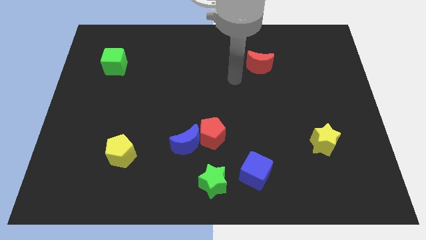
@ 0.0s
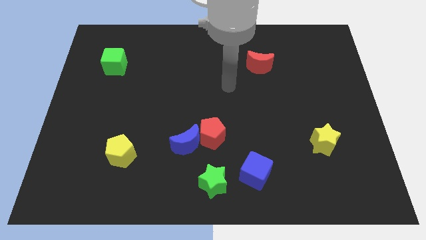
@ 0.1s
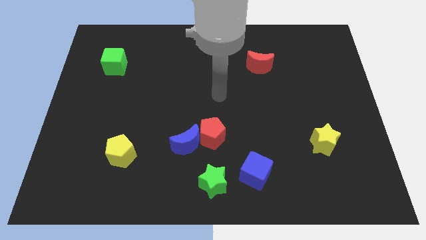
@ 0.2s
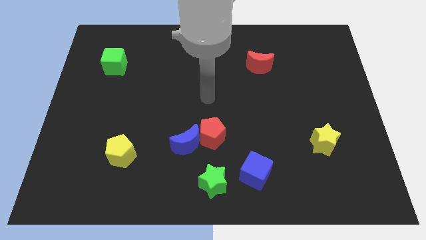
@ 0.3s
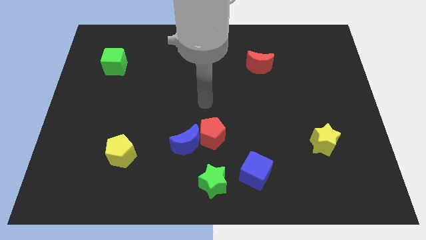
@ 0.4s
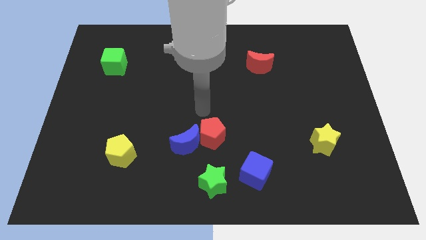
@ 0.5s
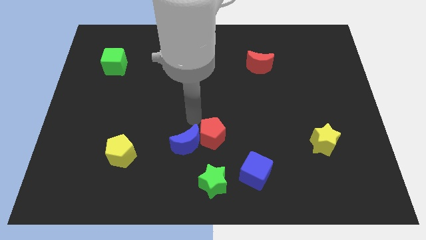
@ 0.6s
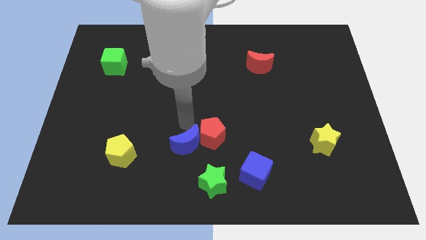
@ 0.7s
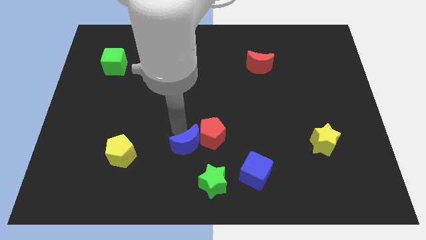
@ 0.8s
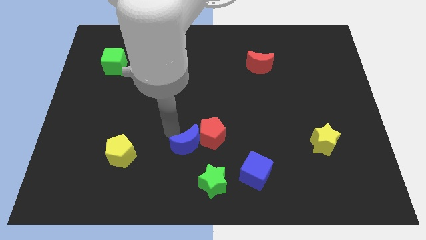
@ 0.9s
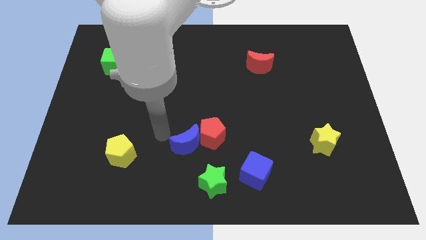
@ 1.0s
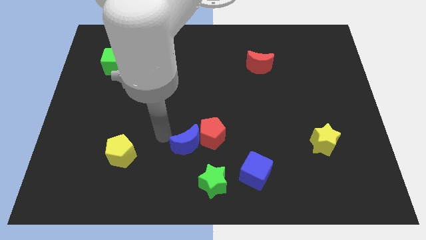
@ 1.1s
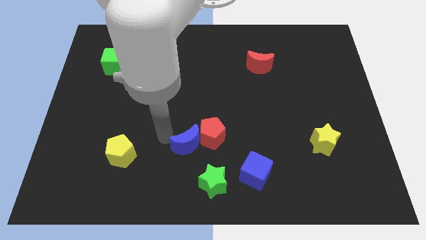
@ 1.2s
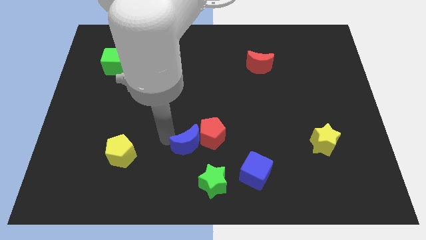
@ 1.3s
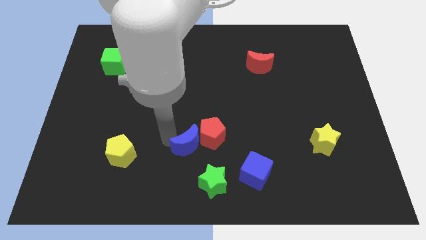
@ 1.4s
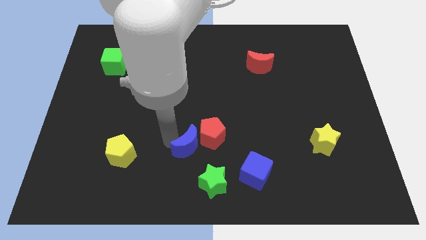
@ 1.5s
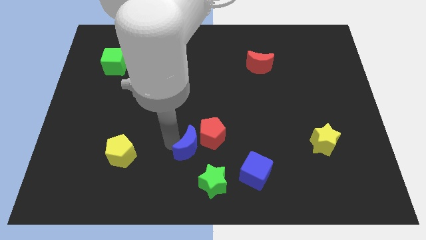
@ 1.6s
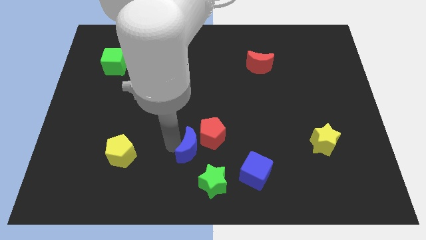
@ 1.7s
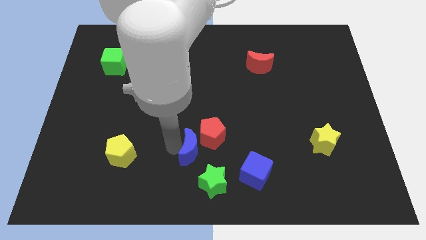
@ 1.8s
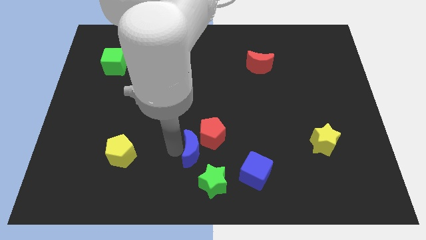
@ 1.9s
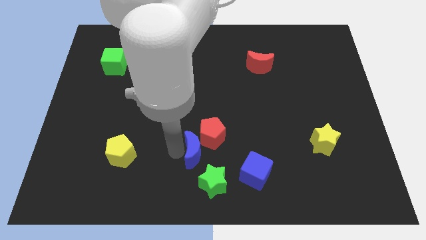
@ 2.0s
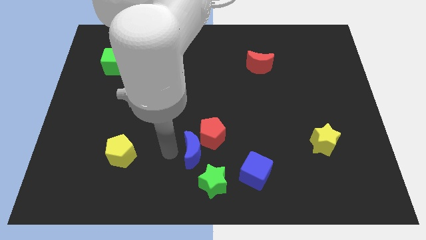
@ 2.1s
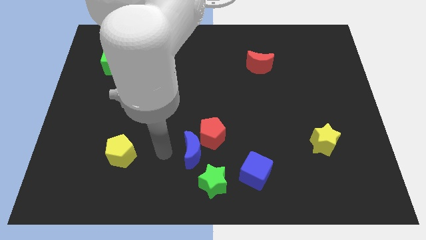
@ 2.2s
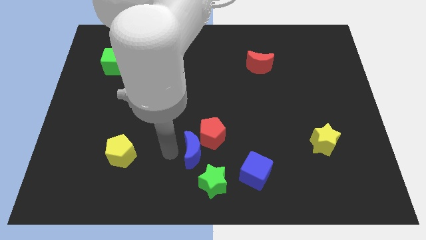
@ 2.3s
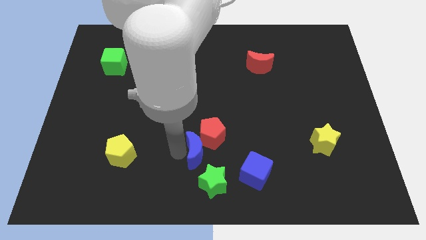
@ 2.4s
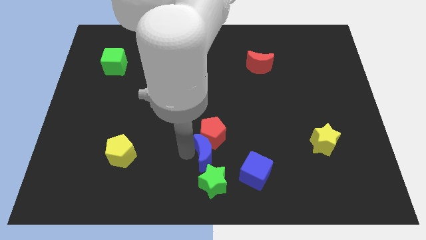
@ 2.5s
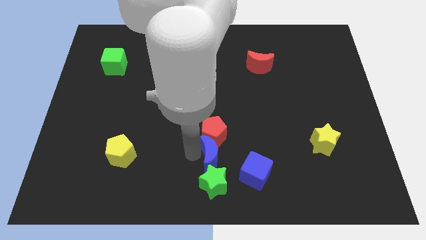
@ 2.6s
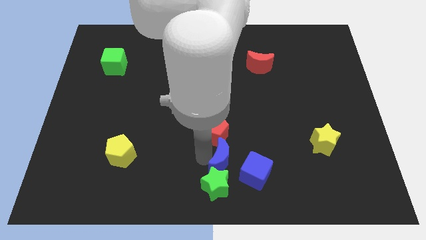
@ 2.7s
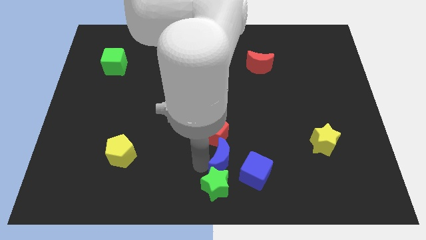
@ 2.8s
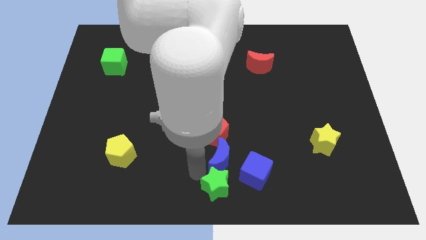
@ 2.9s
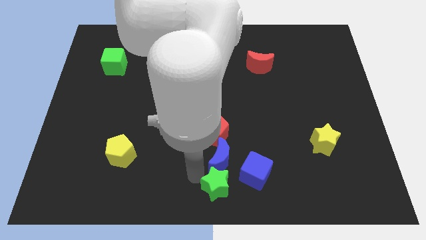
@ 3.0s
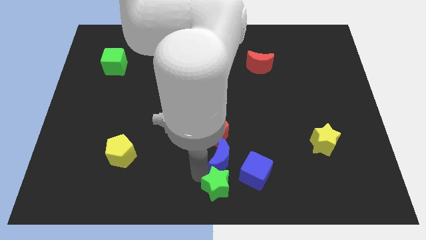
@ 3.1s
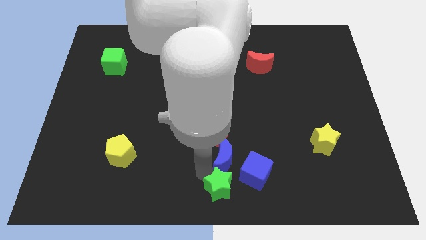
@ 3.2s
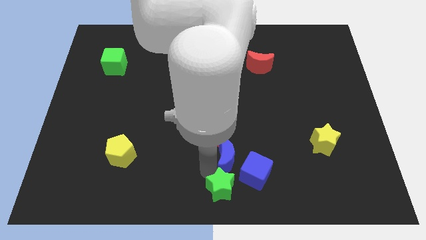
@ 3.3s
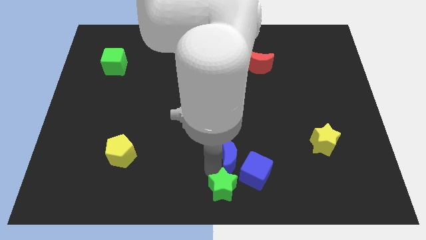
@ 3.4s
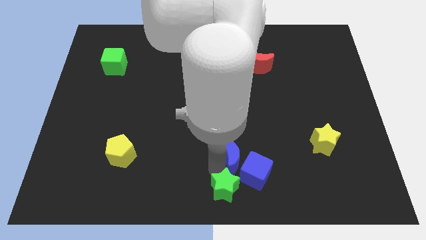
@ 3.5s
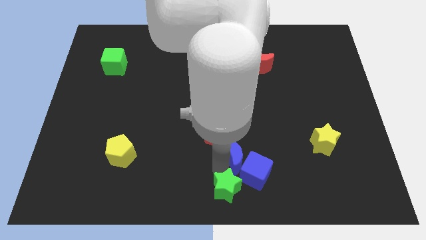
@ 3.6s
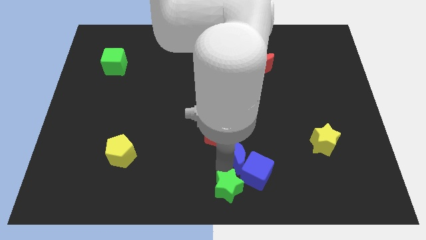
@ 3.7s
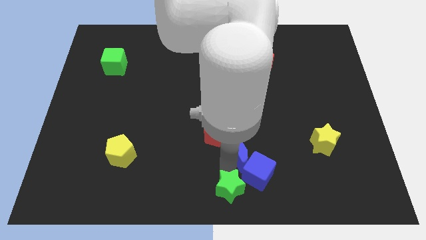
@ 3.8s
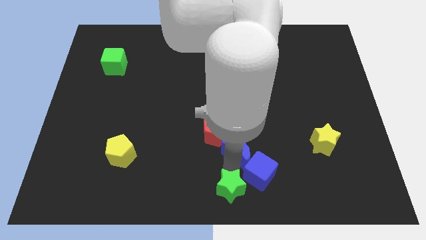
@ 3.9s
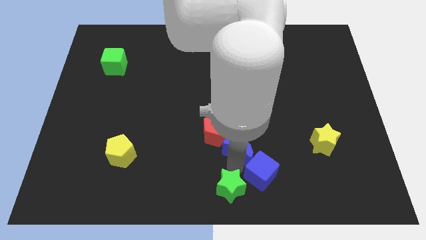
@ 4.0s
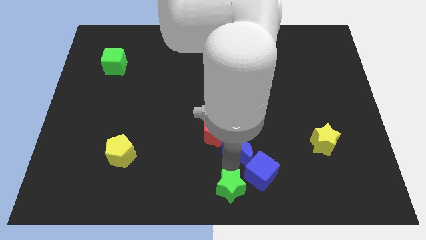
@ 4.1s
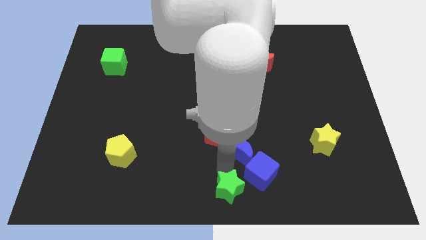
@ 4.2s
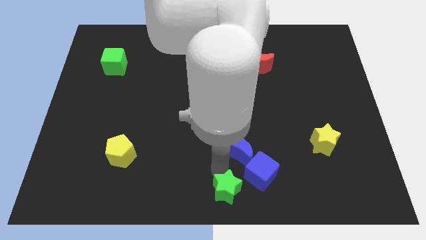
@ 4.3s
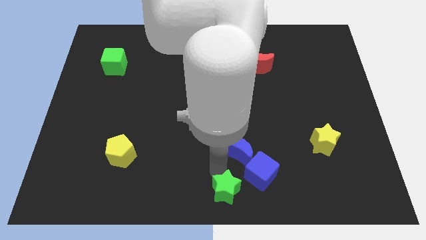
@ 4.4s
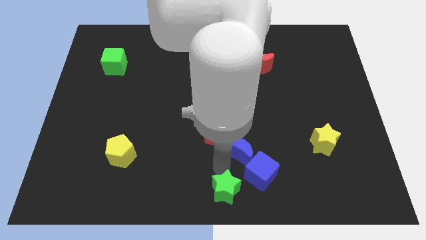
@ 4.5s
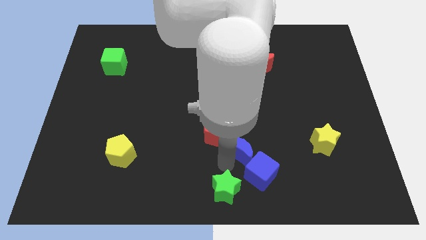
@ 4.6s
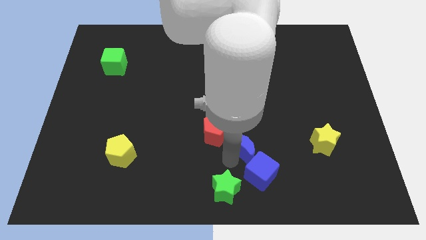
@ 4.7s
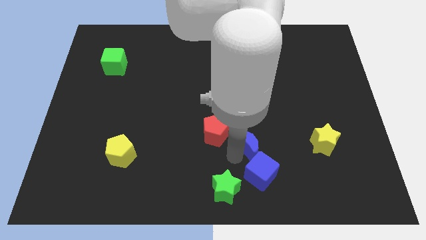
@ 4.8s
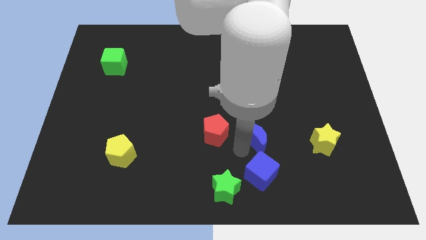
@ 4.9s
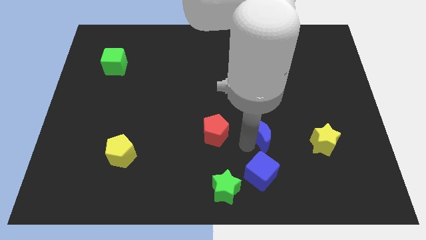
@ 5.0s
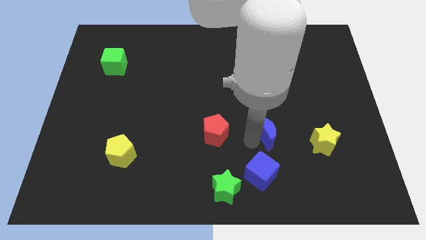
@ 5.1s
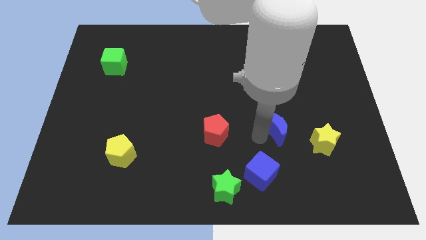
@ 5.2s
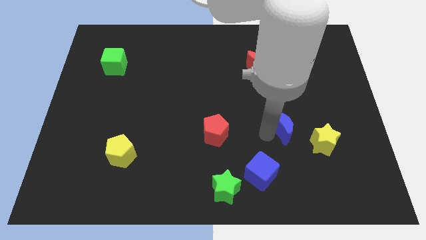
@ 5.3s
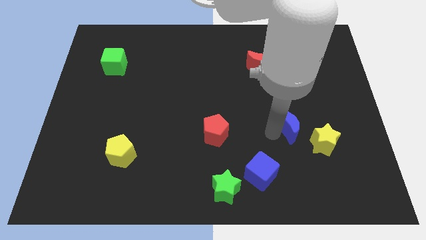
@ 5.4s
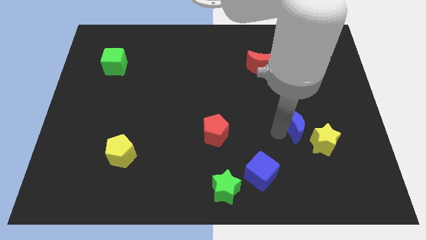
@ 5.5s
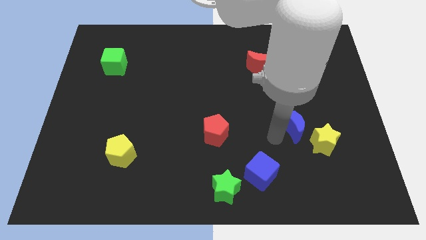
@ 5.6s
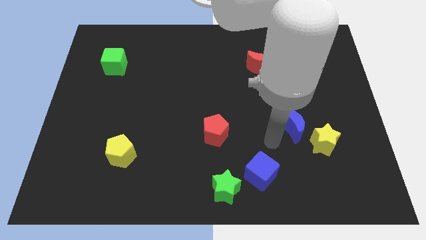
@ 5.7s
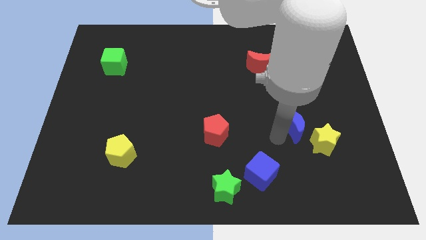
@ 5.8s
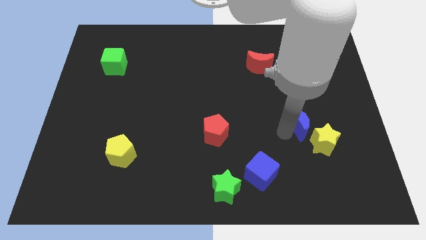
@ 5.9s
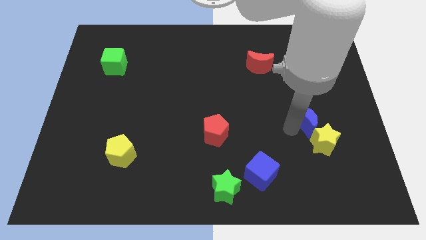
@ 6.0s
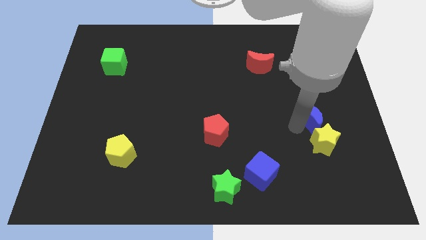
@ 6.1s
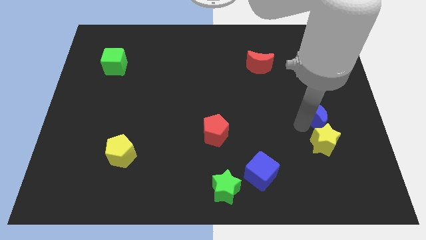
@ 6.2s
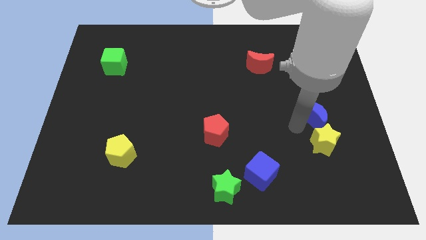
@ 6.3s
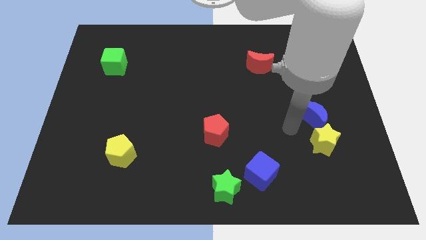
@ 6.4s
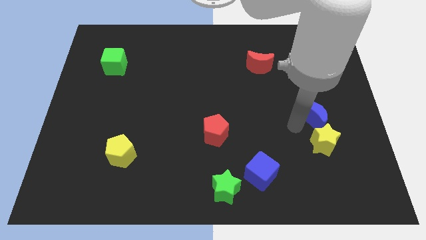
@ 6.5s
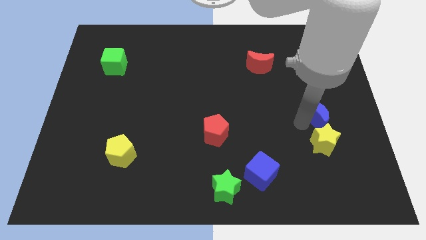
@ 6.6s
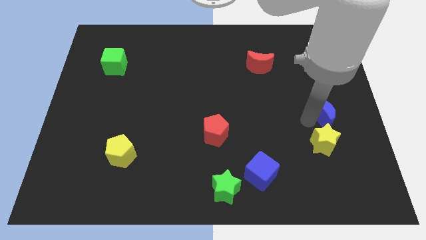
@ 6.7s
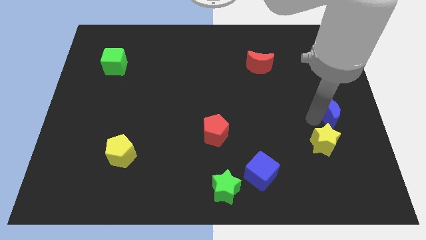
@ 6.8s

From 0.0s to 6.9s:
slide the blue moon to the right side
